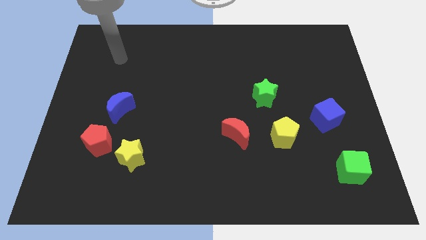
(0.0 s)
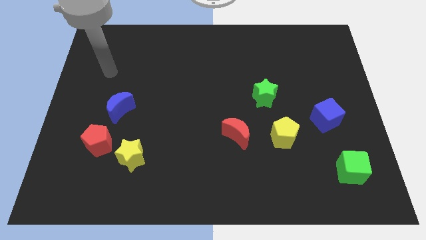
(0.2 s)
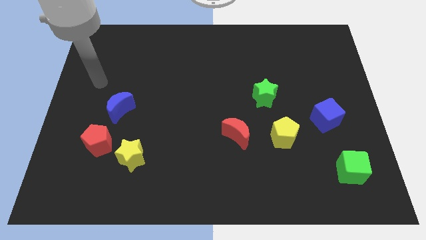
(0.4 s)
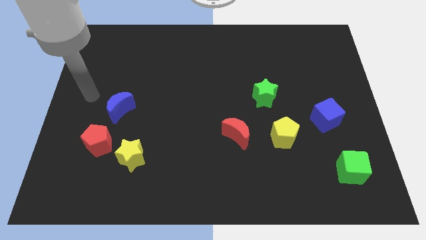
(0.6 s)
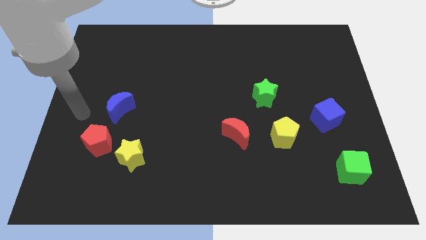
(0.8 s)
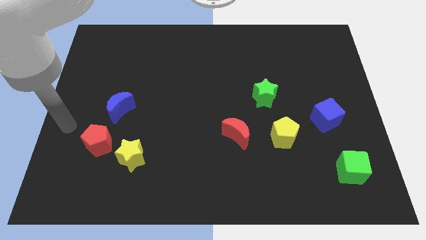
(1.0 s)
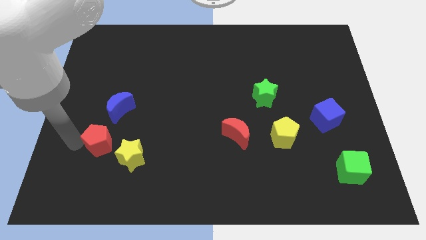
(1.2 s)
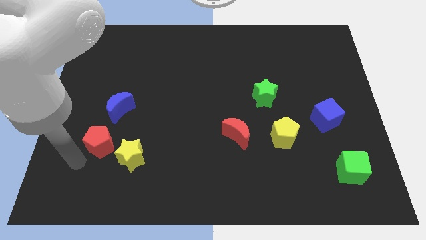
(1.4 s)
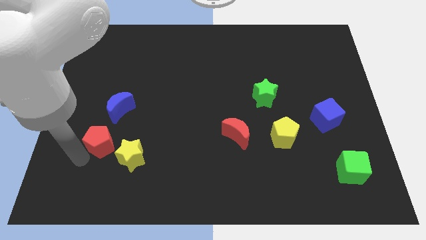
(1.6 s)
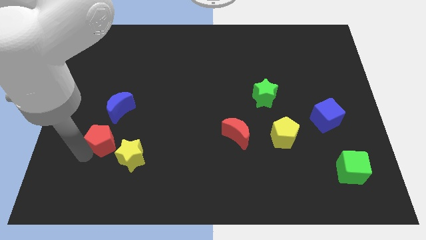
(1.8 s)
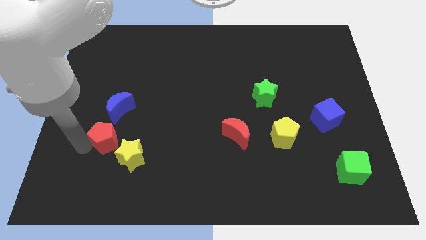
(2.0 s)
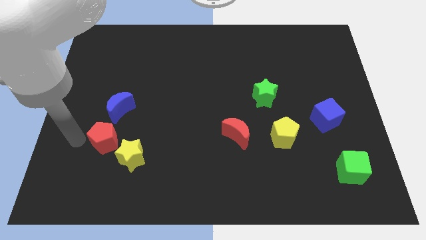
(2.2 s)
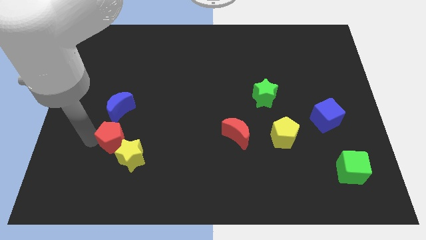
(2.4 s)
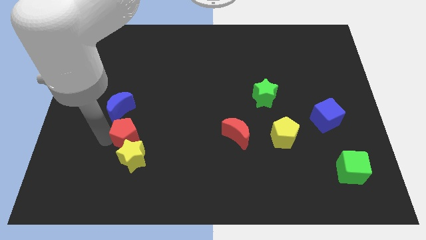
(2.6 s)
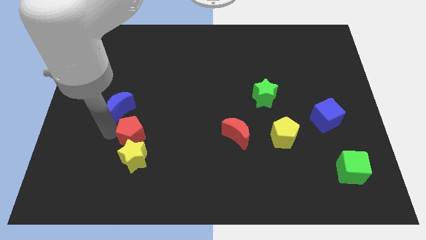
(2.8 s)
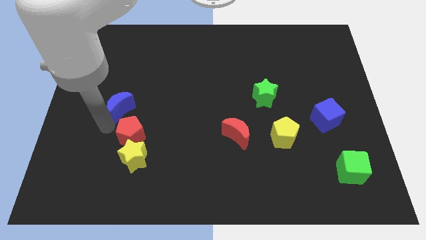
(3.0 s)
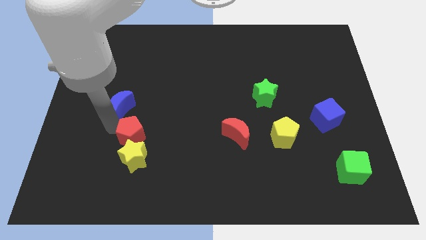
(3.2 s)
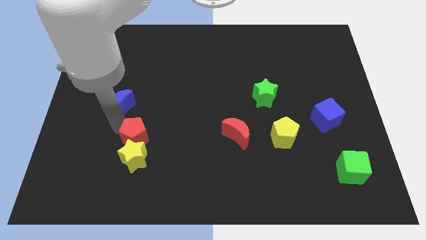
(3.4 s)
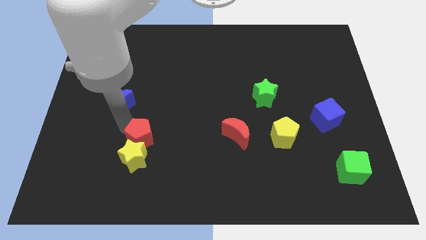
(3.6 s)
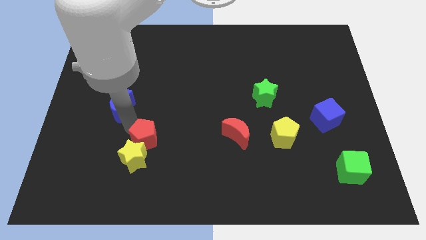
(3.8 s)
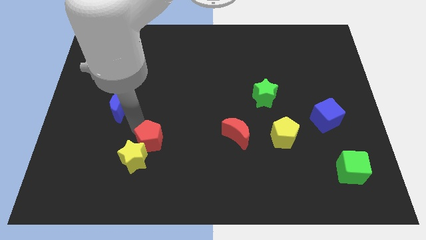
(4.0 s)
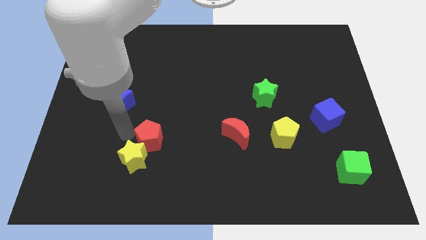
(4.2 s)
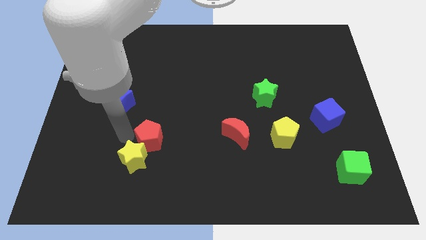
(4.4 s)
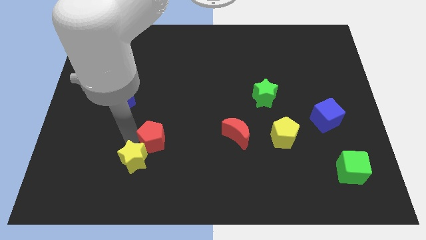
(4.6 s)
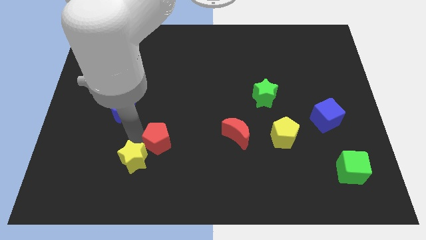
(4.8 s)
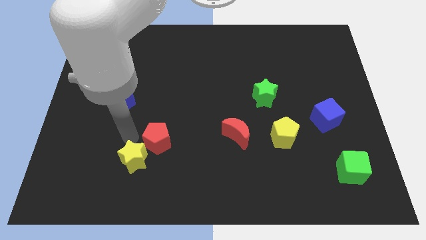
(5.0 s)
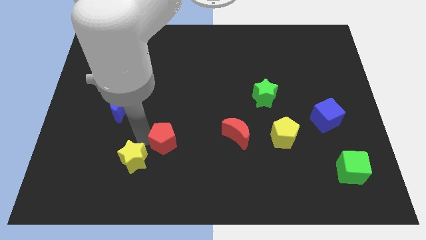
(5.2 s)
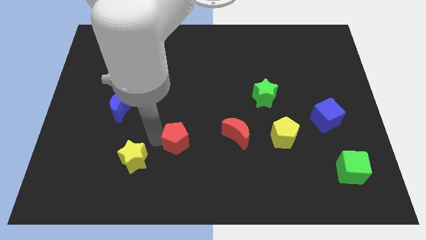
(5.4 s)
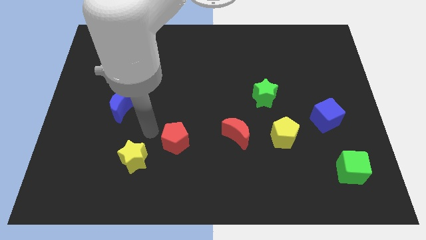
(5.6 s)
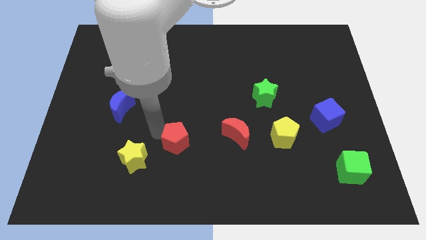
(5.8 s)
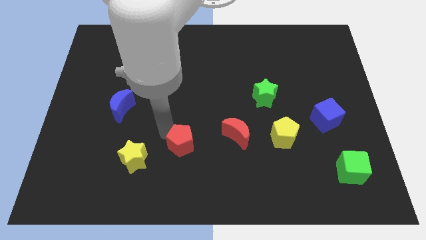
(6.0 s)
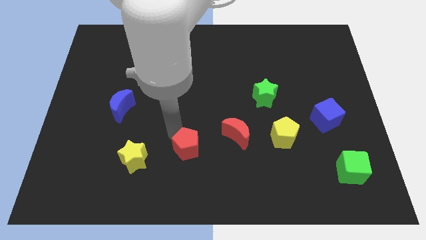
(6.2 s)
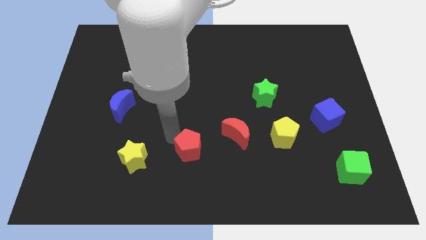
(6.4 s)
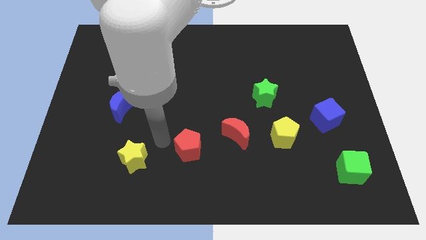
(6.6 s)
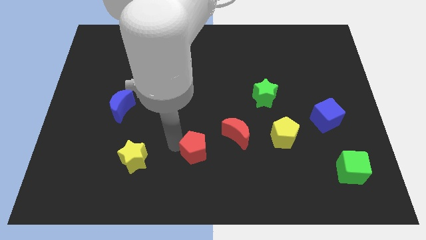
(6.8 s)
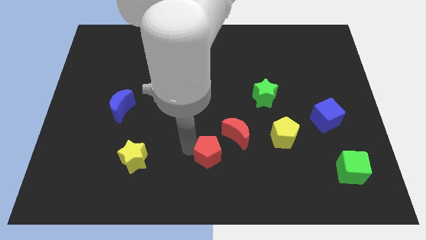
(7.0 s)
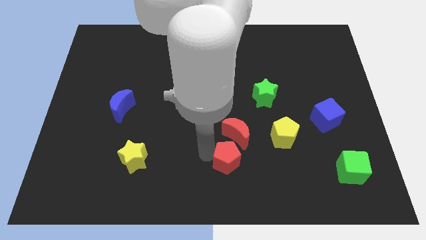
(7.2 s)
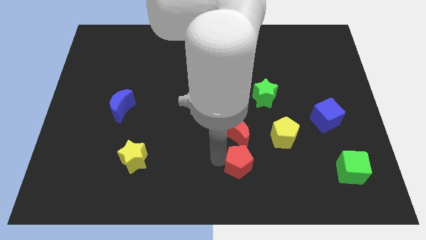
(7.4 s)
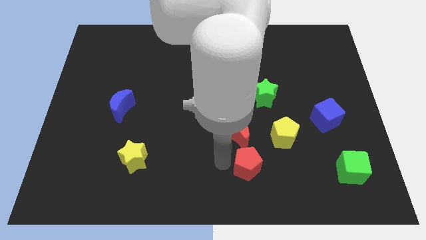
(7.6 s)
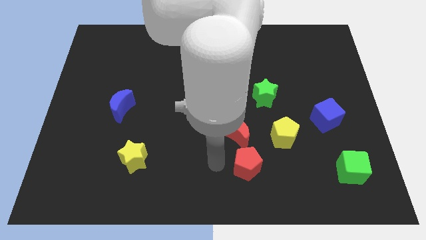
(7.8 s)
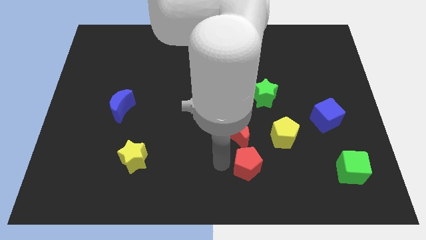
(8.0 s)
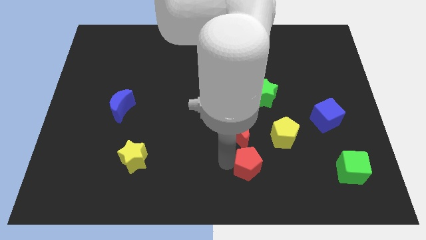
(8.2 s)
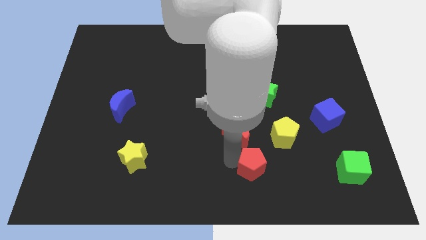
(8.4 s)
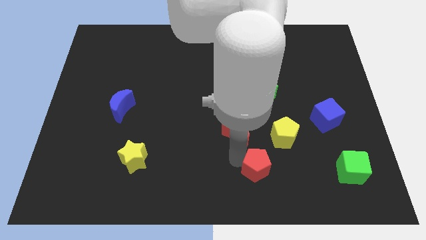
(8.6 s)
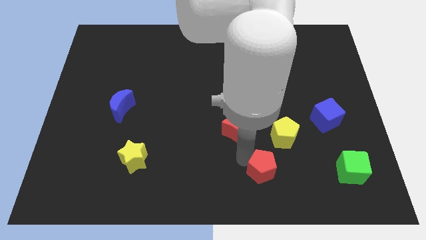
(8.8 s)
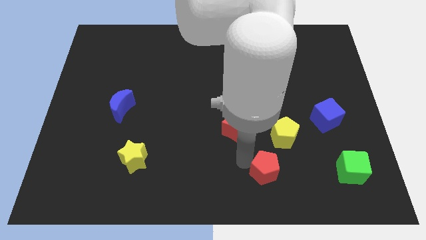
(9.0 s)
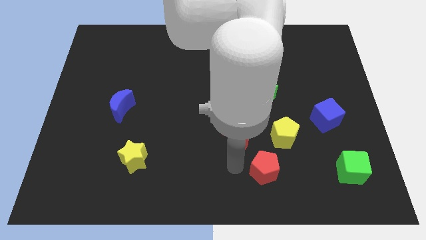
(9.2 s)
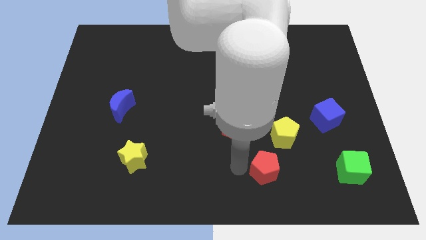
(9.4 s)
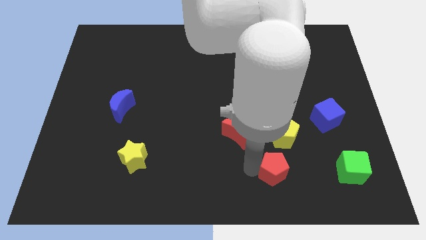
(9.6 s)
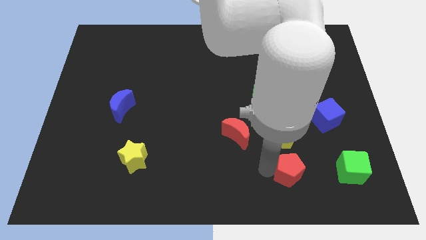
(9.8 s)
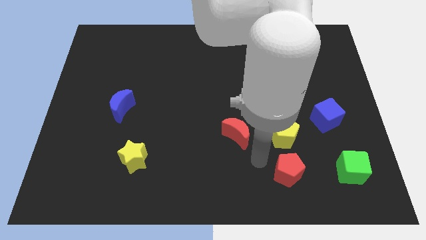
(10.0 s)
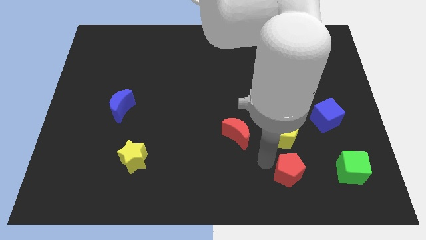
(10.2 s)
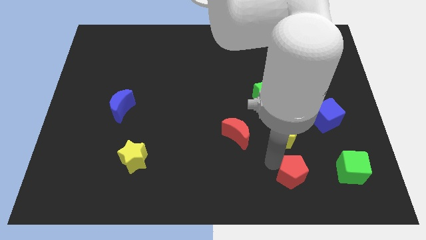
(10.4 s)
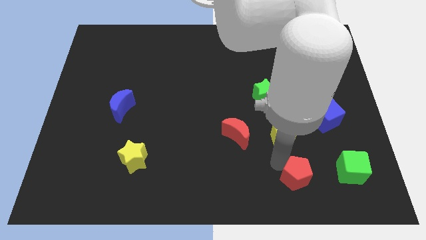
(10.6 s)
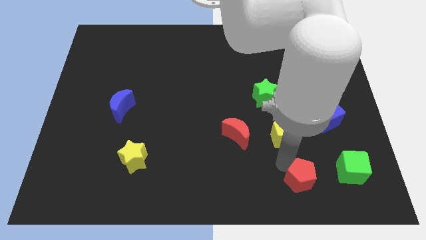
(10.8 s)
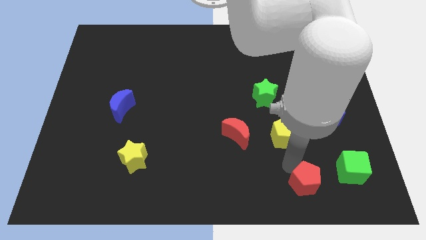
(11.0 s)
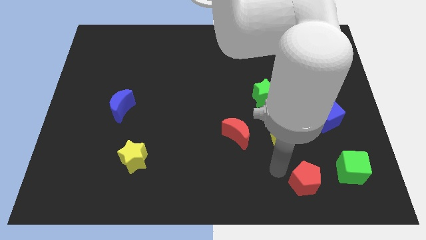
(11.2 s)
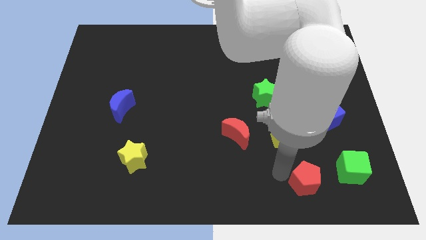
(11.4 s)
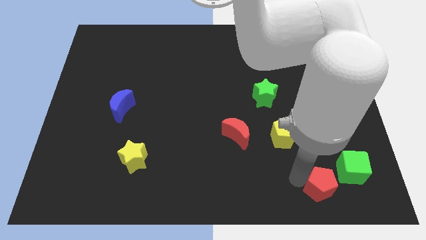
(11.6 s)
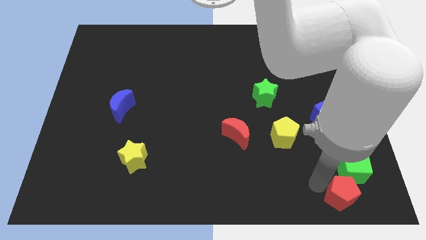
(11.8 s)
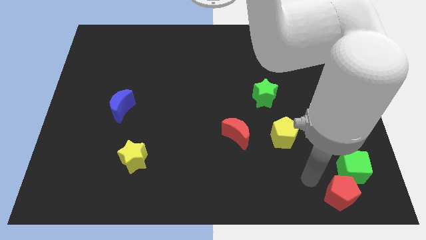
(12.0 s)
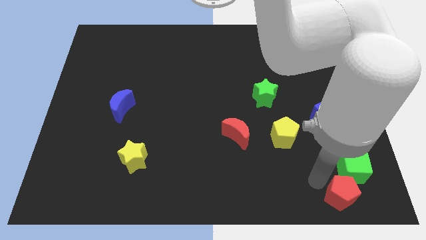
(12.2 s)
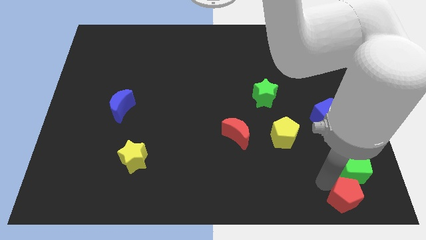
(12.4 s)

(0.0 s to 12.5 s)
put the red pentagon to the bottom right corner
